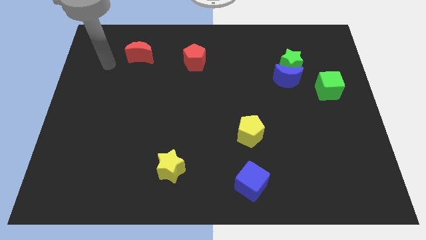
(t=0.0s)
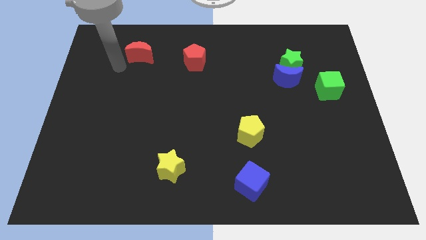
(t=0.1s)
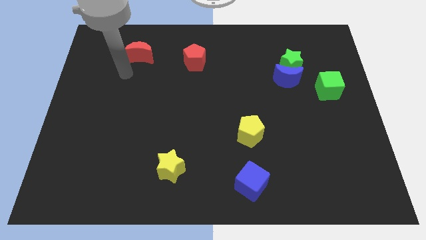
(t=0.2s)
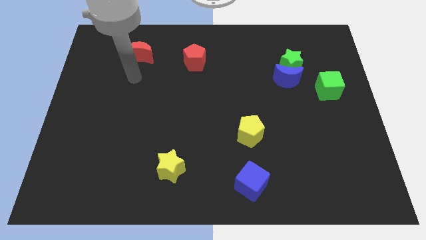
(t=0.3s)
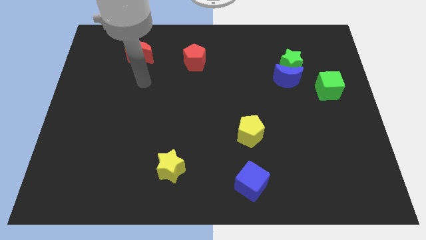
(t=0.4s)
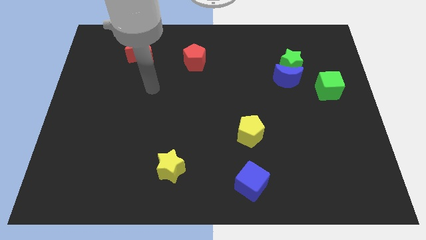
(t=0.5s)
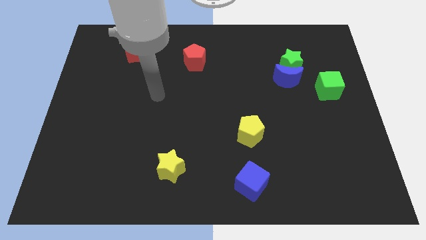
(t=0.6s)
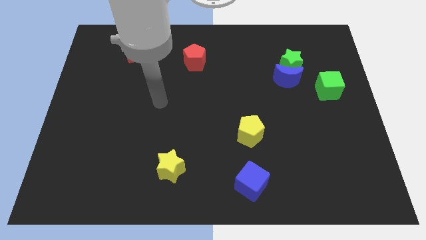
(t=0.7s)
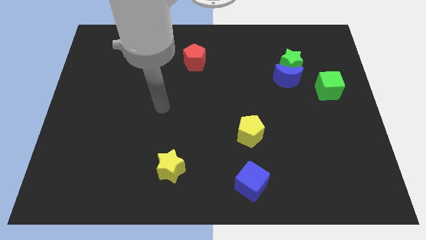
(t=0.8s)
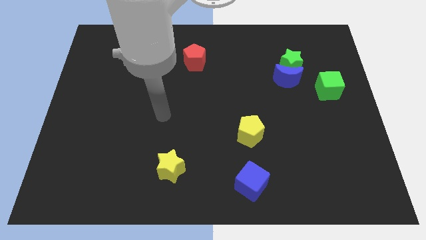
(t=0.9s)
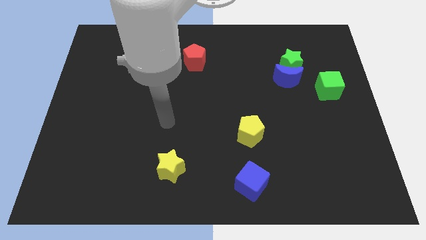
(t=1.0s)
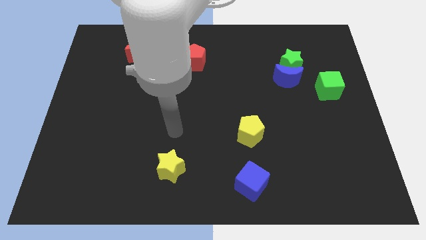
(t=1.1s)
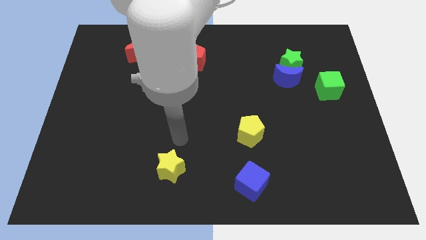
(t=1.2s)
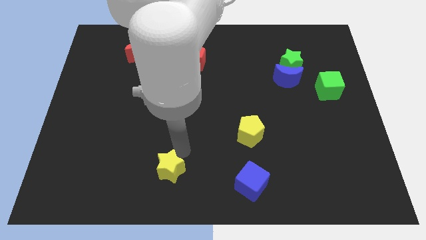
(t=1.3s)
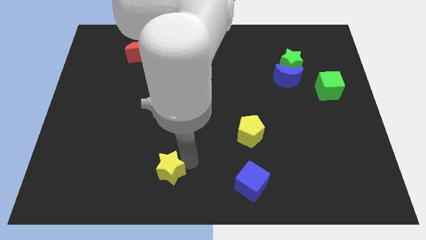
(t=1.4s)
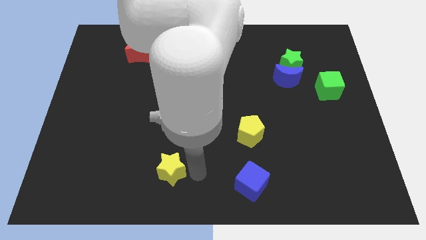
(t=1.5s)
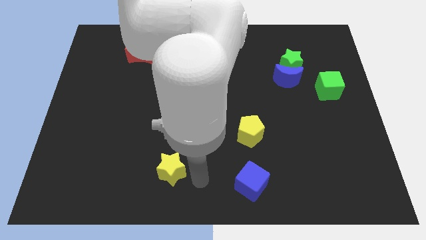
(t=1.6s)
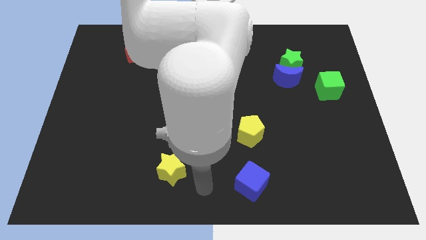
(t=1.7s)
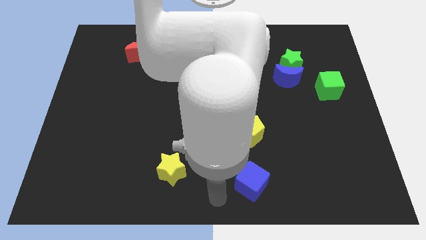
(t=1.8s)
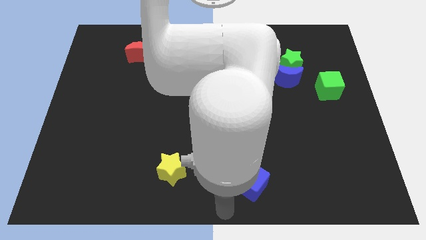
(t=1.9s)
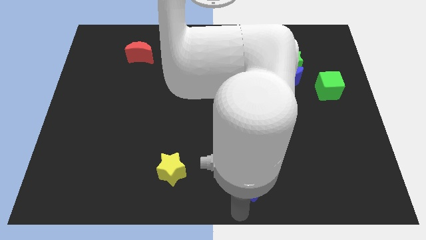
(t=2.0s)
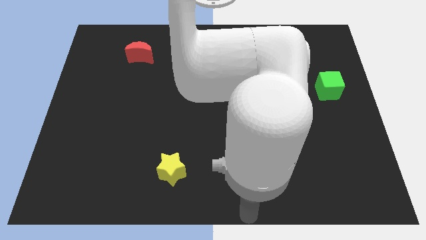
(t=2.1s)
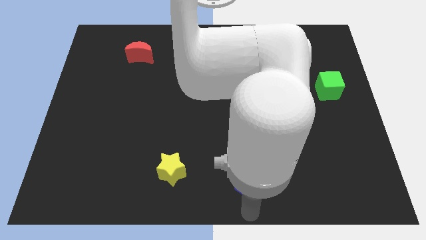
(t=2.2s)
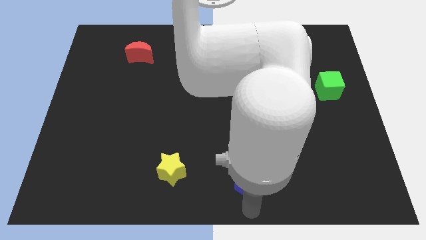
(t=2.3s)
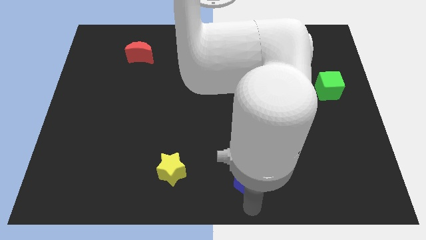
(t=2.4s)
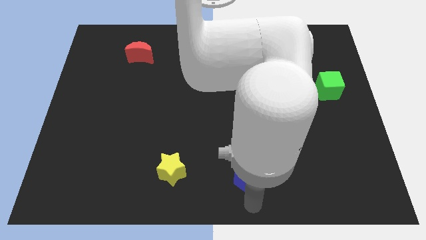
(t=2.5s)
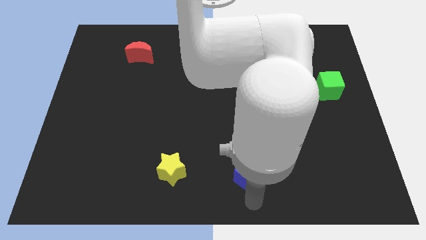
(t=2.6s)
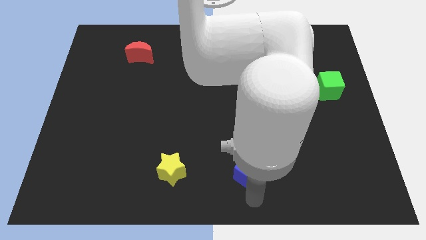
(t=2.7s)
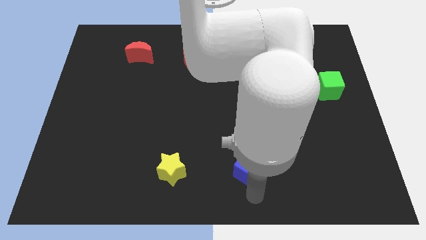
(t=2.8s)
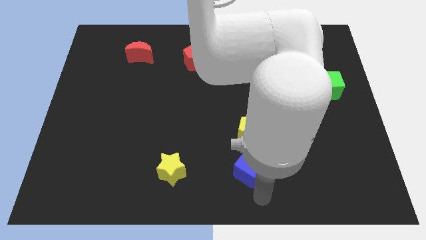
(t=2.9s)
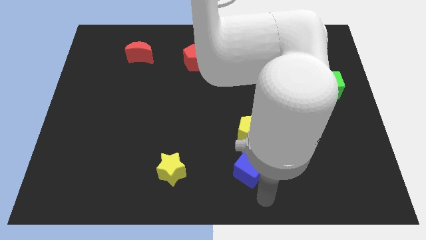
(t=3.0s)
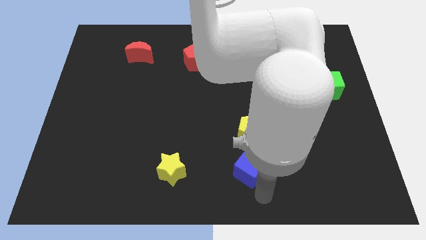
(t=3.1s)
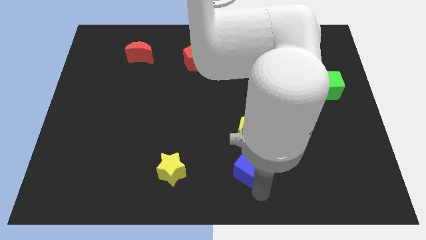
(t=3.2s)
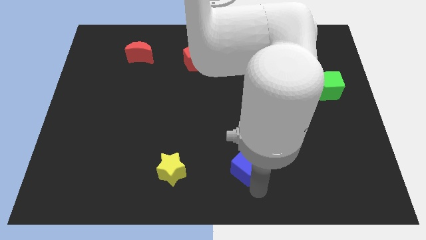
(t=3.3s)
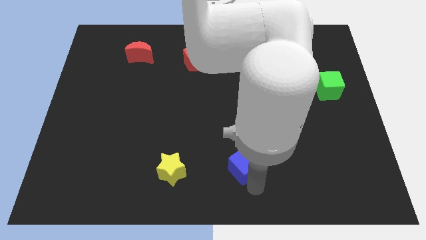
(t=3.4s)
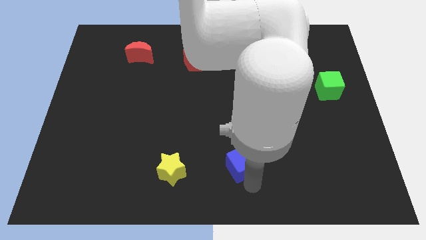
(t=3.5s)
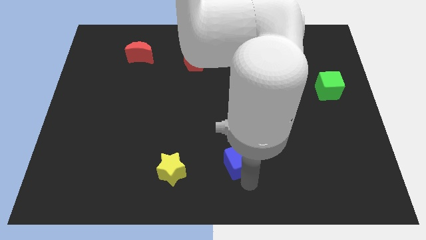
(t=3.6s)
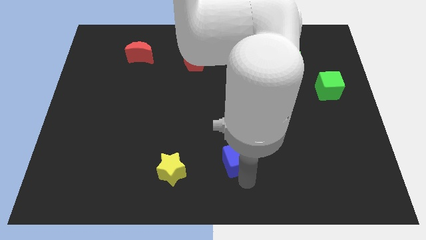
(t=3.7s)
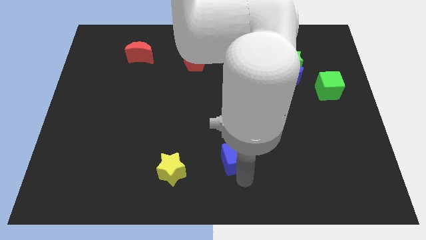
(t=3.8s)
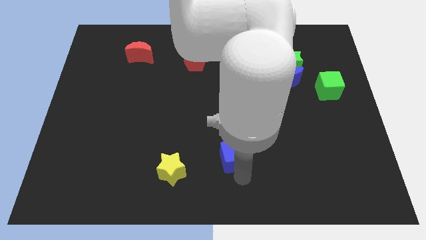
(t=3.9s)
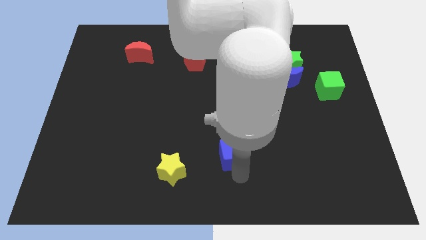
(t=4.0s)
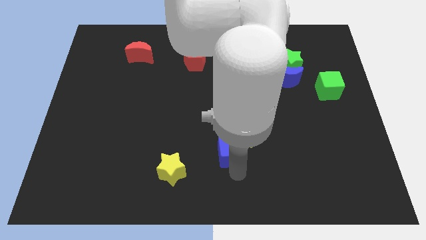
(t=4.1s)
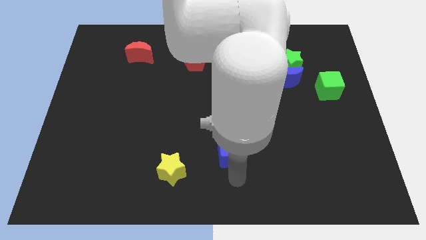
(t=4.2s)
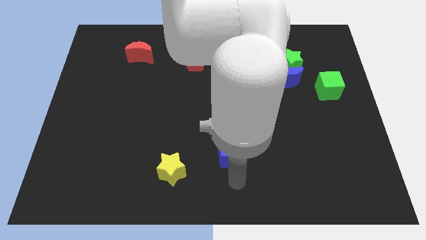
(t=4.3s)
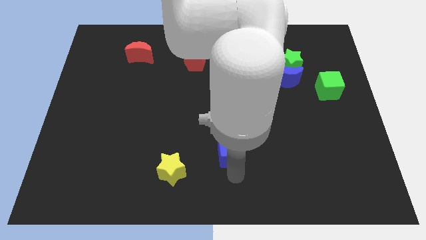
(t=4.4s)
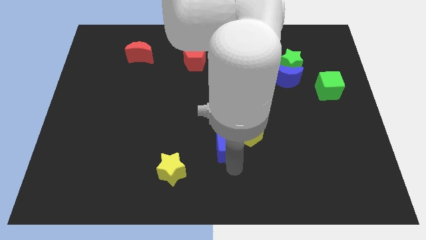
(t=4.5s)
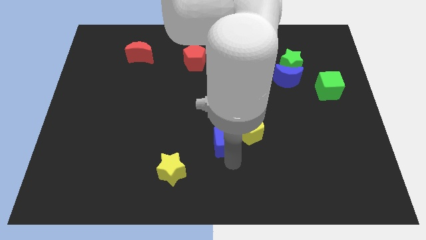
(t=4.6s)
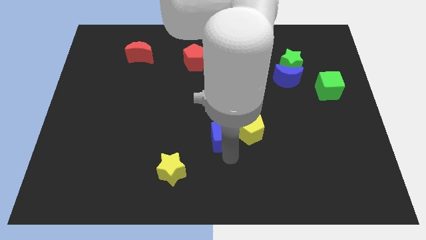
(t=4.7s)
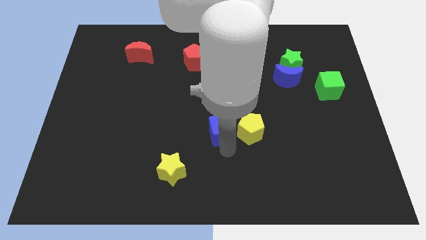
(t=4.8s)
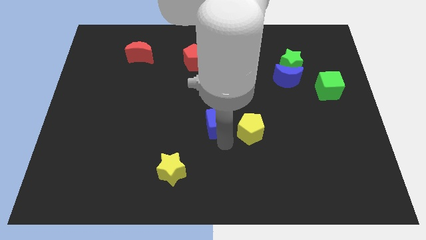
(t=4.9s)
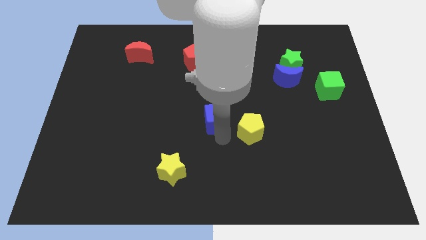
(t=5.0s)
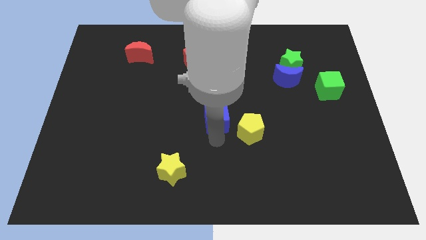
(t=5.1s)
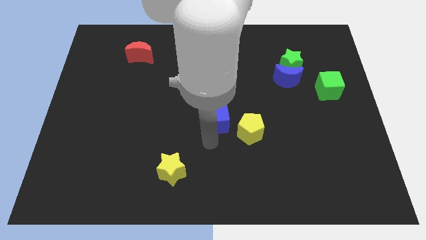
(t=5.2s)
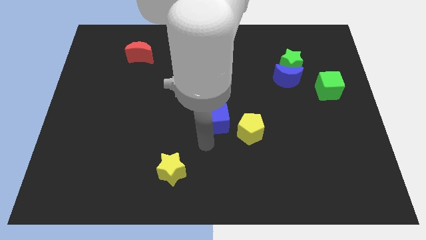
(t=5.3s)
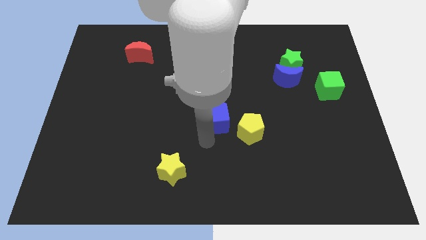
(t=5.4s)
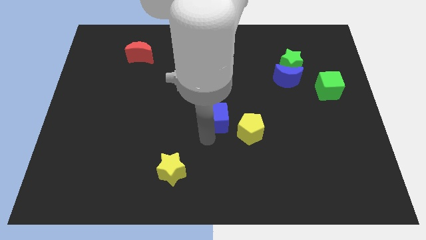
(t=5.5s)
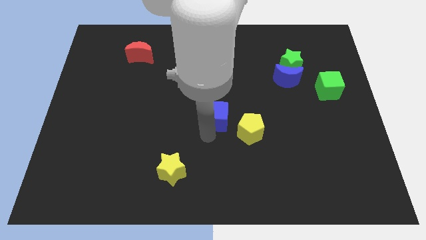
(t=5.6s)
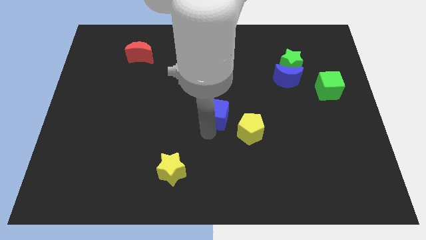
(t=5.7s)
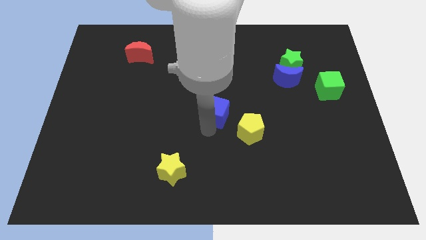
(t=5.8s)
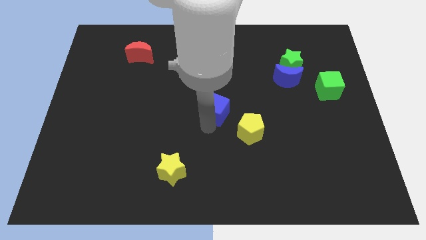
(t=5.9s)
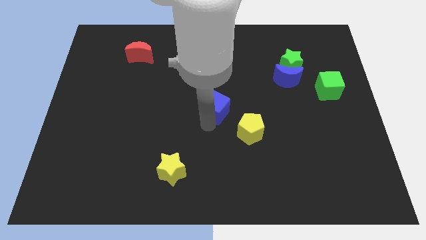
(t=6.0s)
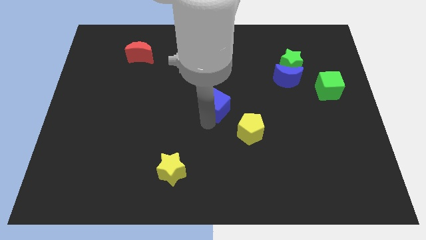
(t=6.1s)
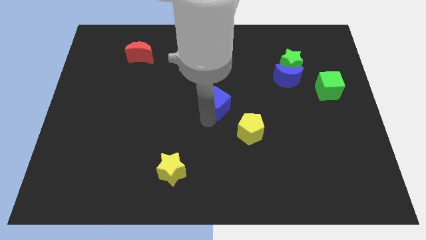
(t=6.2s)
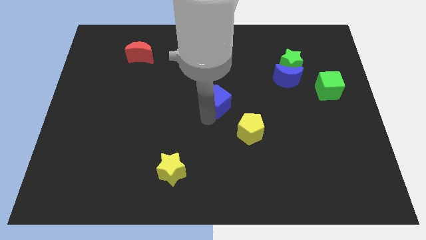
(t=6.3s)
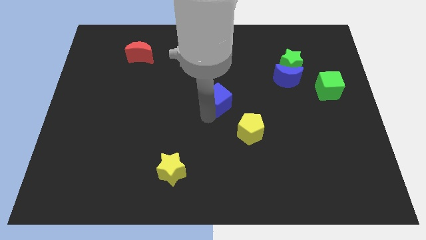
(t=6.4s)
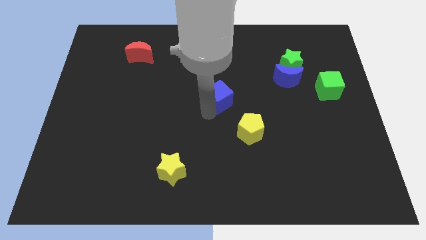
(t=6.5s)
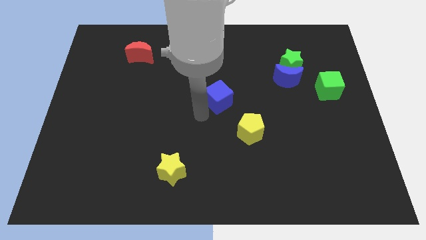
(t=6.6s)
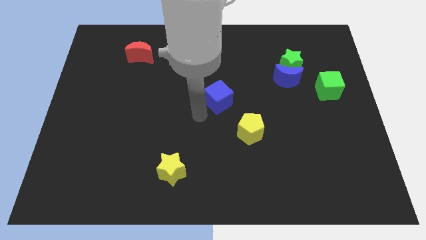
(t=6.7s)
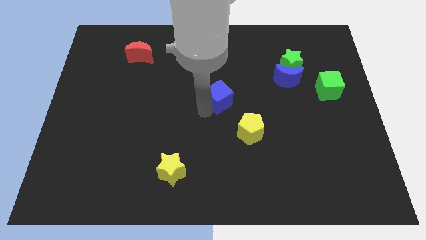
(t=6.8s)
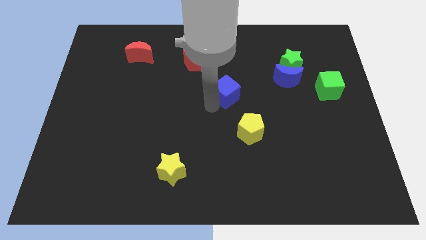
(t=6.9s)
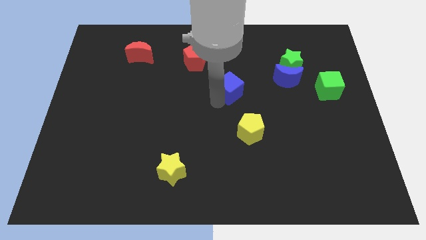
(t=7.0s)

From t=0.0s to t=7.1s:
push the blue cube left of the blue moon

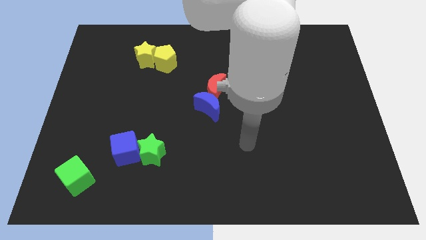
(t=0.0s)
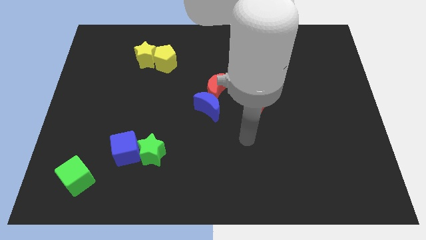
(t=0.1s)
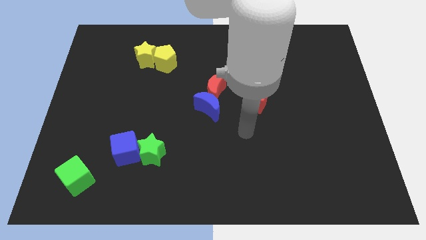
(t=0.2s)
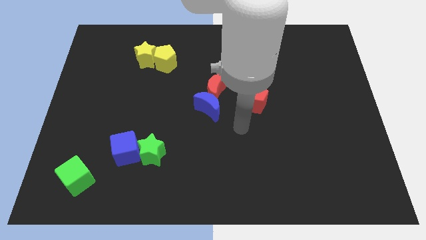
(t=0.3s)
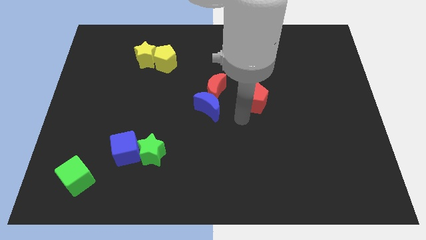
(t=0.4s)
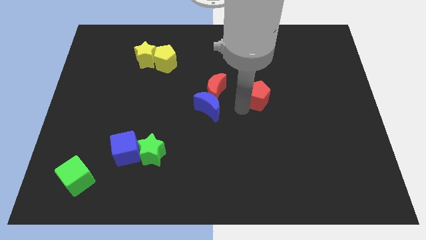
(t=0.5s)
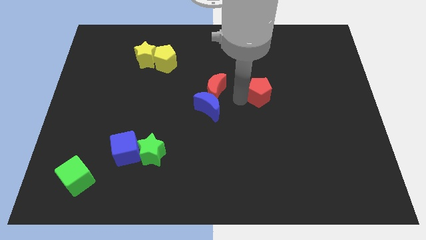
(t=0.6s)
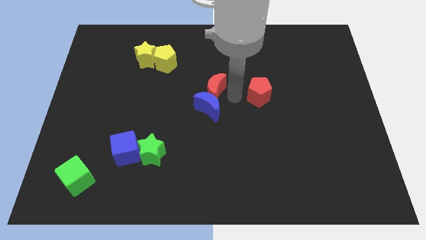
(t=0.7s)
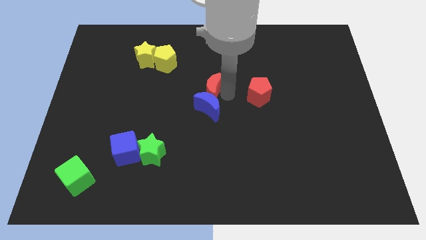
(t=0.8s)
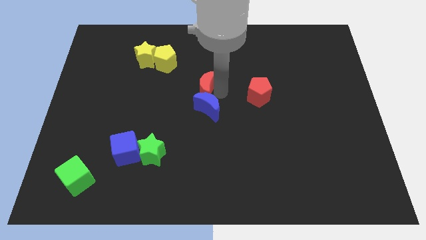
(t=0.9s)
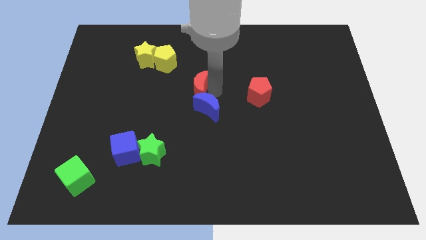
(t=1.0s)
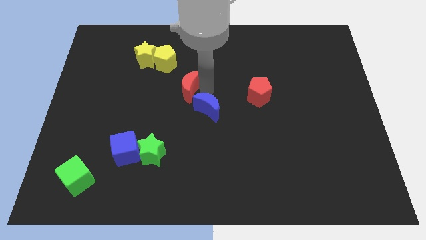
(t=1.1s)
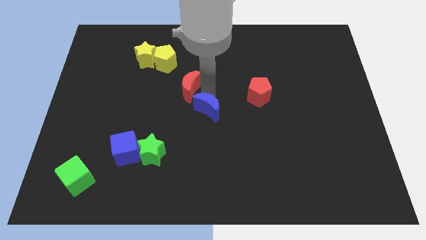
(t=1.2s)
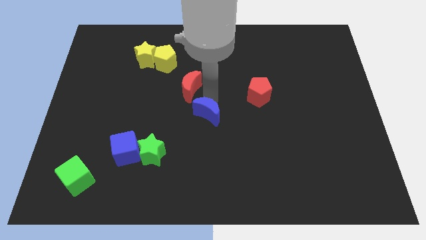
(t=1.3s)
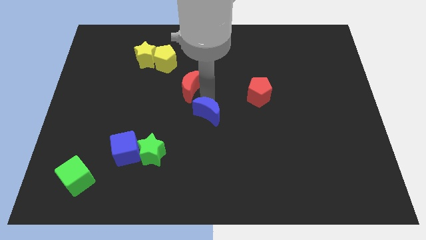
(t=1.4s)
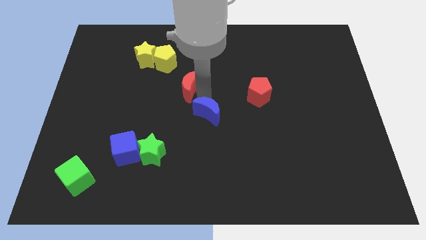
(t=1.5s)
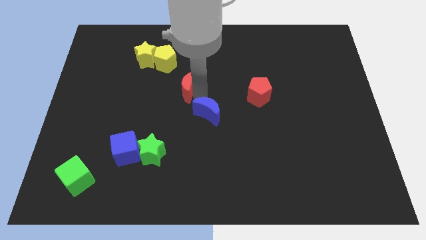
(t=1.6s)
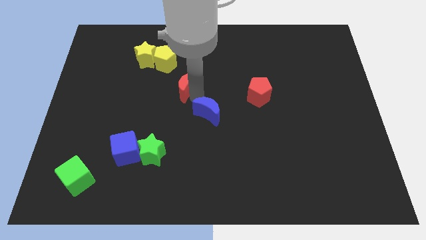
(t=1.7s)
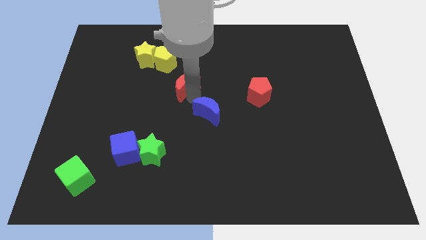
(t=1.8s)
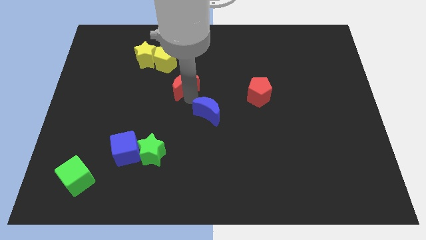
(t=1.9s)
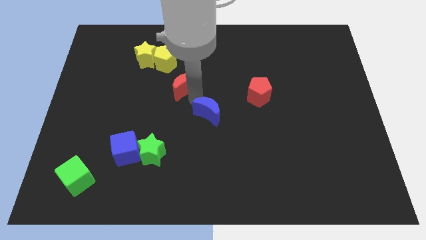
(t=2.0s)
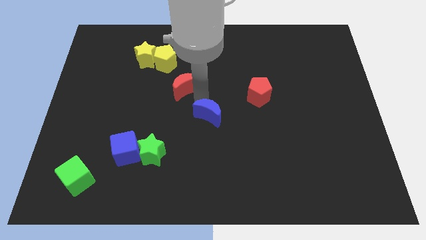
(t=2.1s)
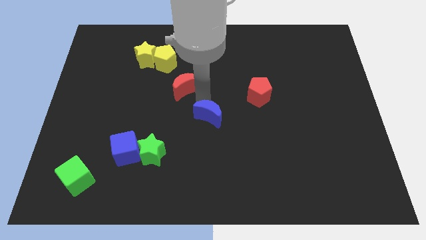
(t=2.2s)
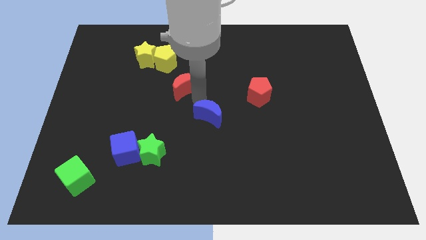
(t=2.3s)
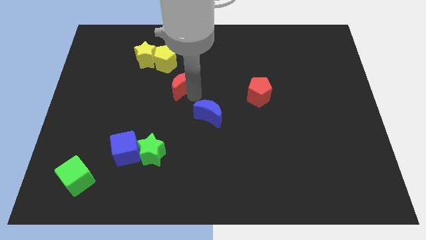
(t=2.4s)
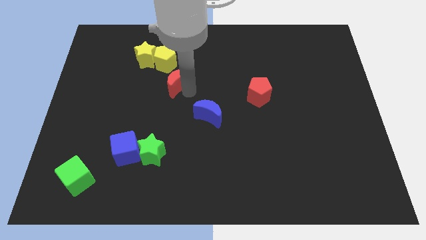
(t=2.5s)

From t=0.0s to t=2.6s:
put the red moon to the bottom right side of the yellow star
